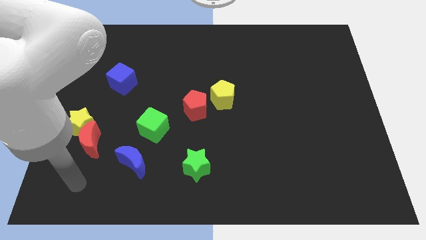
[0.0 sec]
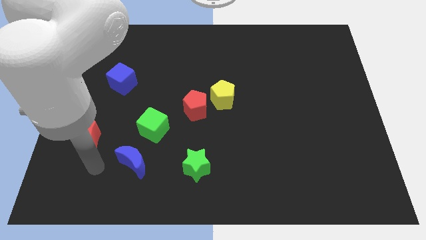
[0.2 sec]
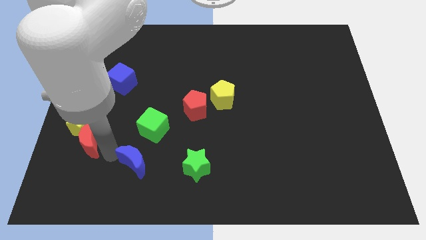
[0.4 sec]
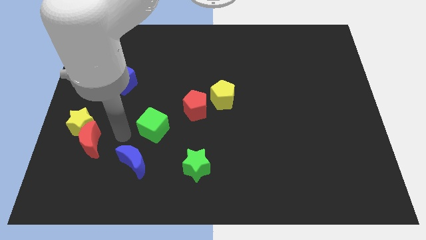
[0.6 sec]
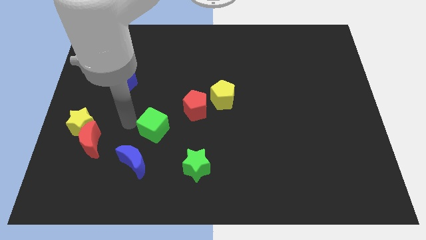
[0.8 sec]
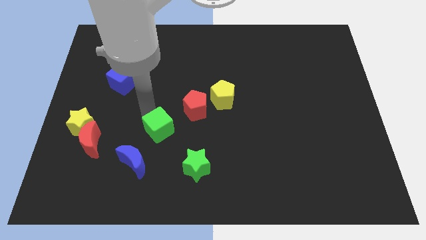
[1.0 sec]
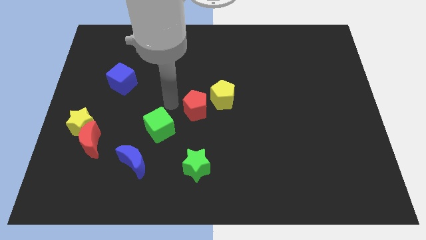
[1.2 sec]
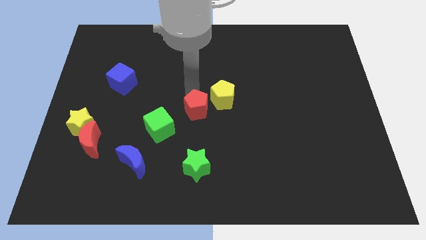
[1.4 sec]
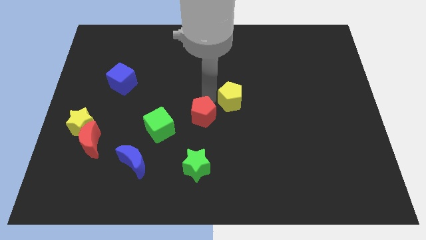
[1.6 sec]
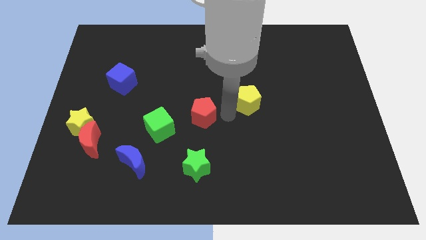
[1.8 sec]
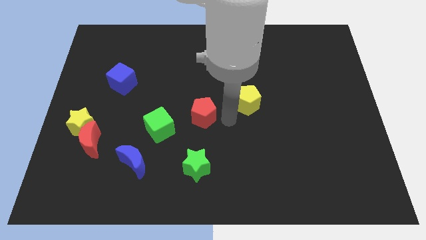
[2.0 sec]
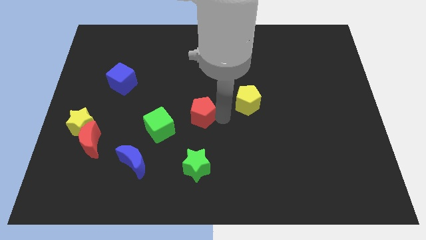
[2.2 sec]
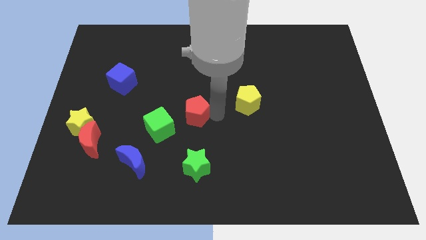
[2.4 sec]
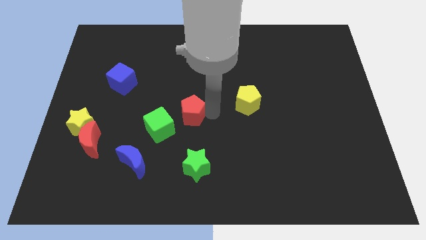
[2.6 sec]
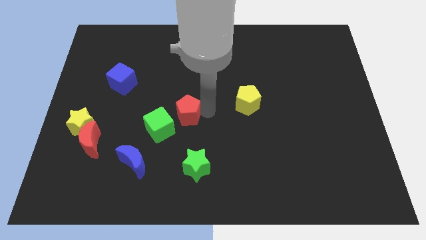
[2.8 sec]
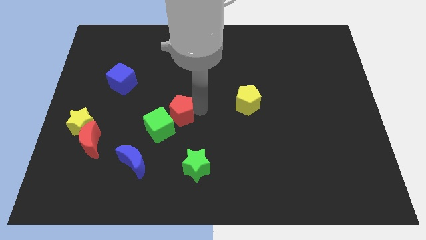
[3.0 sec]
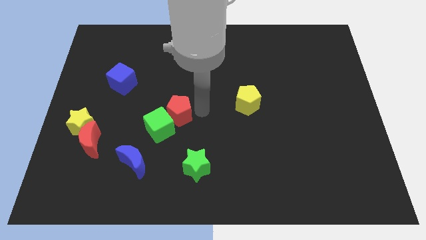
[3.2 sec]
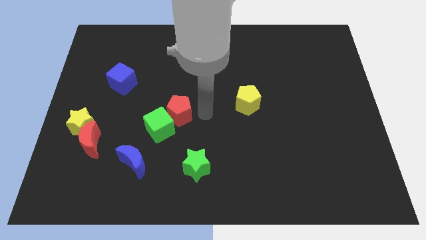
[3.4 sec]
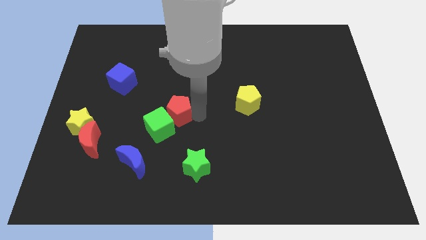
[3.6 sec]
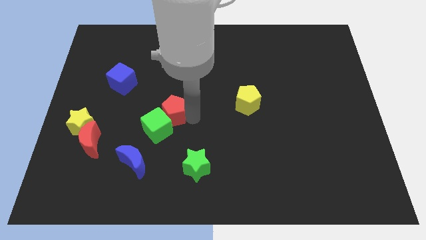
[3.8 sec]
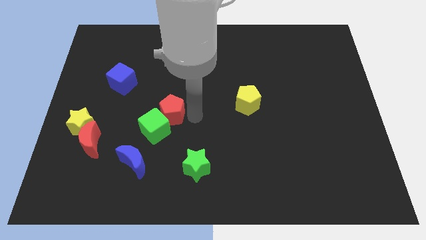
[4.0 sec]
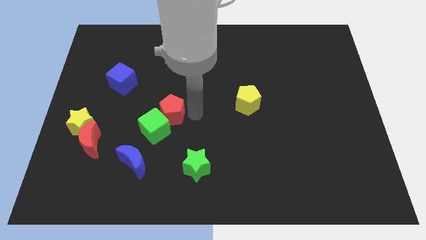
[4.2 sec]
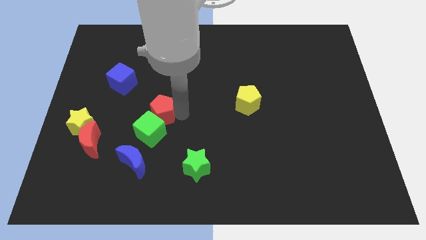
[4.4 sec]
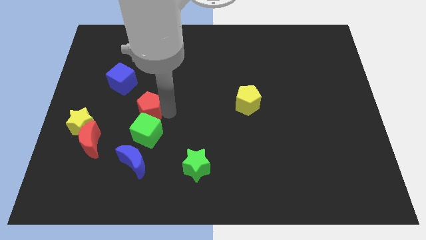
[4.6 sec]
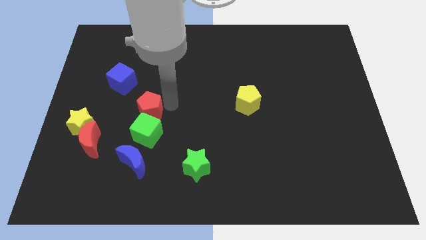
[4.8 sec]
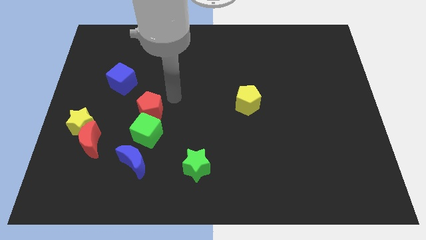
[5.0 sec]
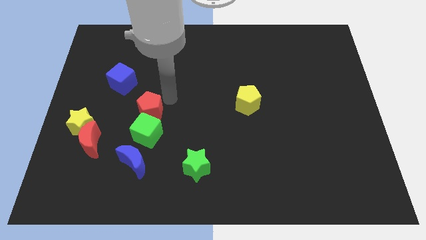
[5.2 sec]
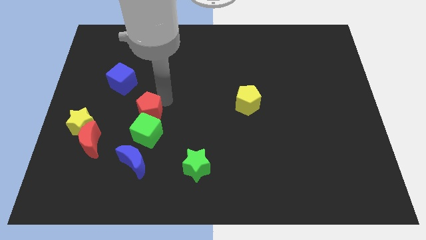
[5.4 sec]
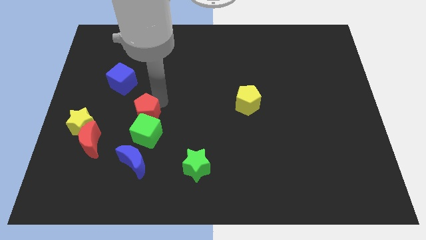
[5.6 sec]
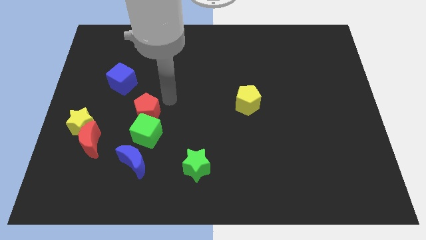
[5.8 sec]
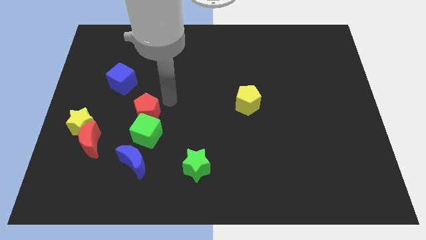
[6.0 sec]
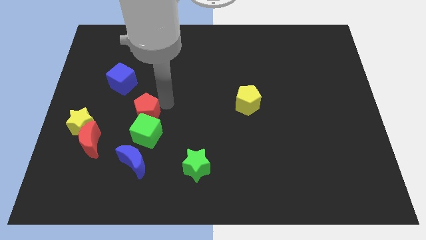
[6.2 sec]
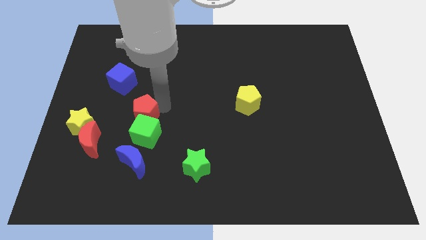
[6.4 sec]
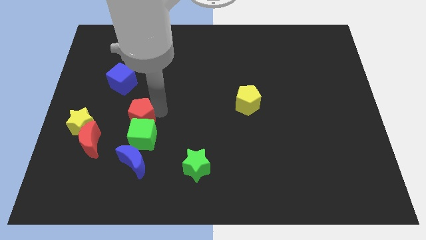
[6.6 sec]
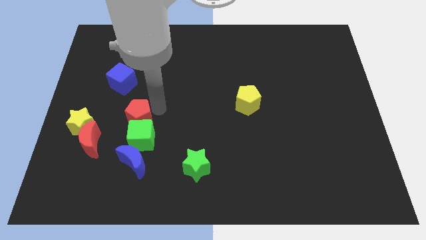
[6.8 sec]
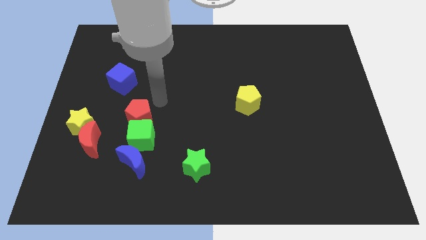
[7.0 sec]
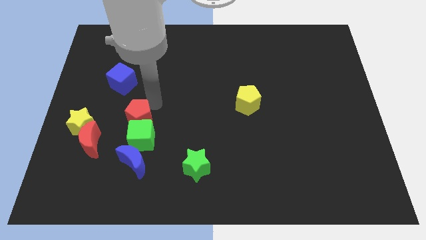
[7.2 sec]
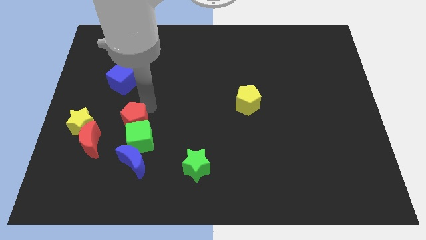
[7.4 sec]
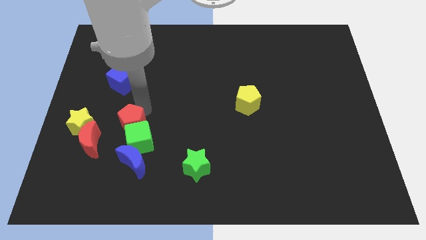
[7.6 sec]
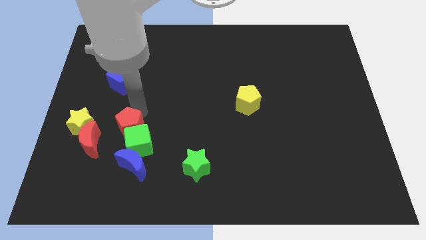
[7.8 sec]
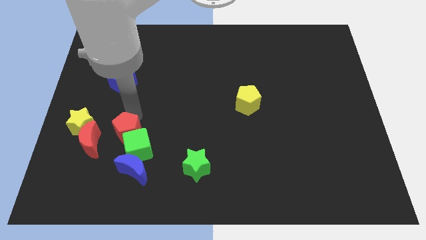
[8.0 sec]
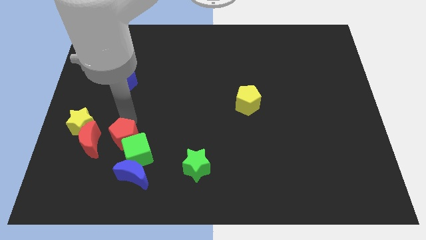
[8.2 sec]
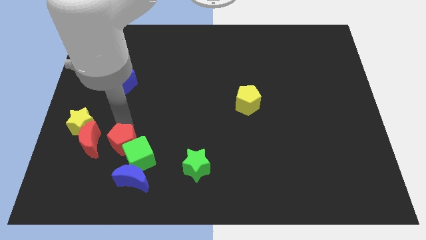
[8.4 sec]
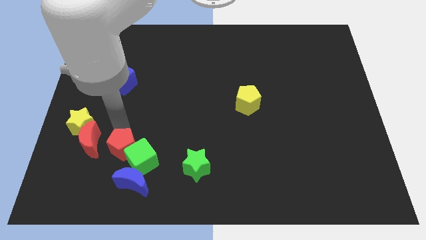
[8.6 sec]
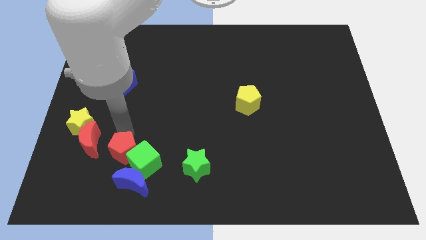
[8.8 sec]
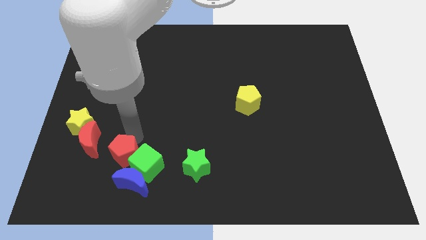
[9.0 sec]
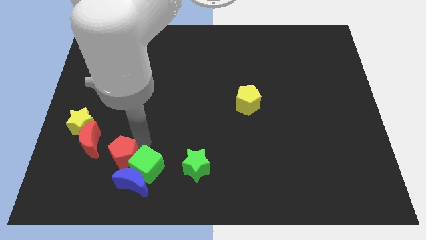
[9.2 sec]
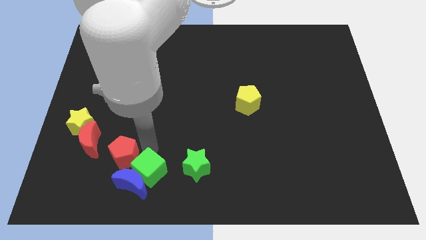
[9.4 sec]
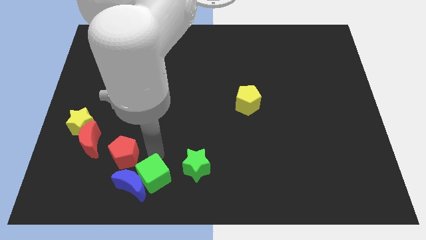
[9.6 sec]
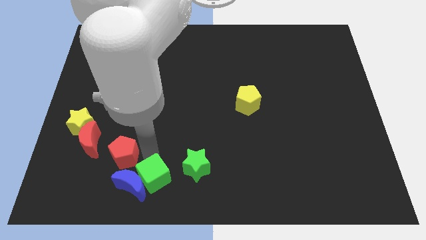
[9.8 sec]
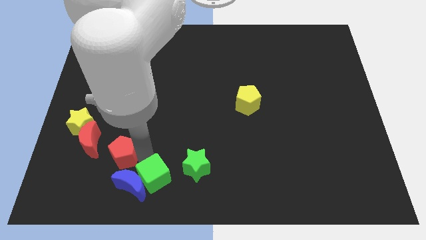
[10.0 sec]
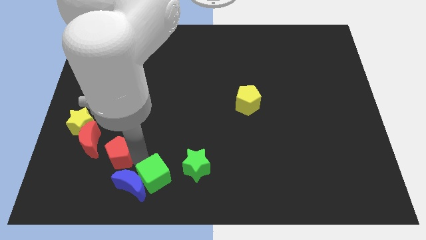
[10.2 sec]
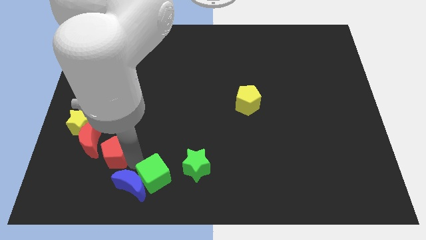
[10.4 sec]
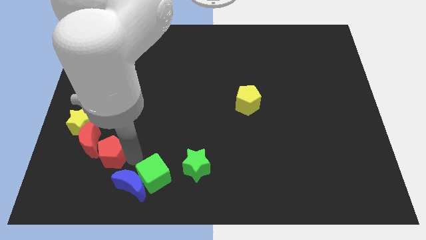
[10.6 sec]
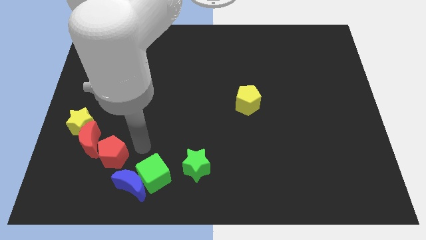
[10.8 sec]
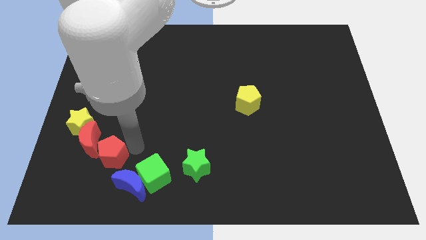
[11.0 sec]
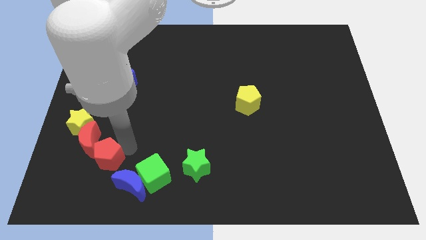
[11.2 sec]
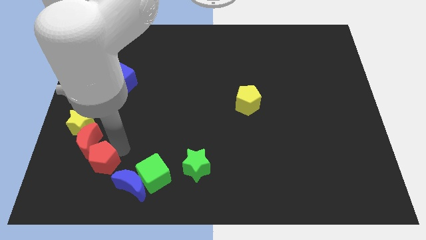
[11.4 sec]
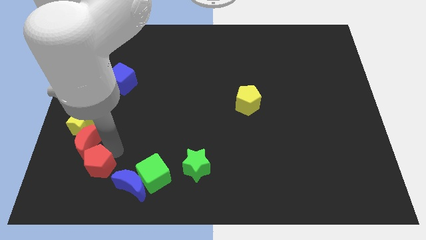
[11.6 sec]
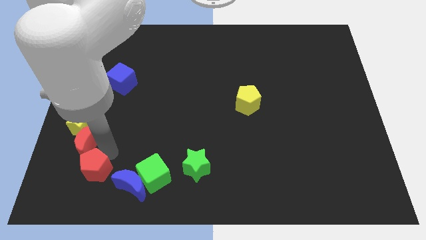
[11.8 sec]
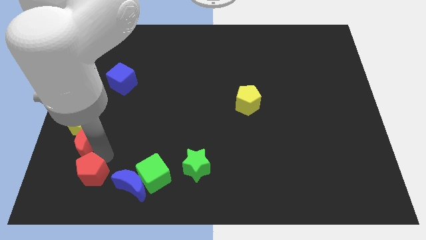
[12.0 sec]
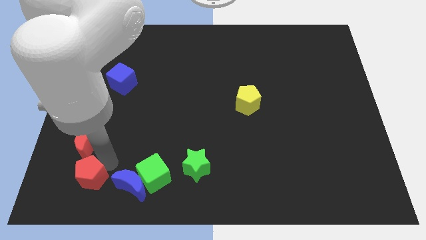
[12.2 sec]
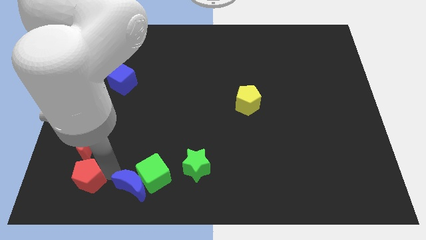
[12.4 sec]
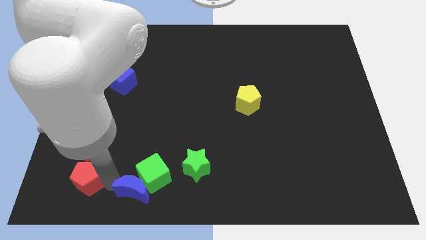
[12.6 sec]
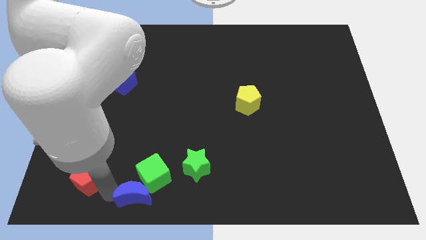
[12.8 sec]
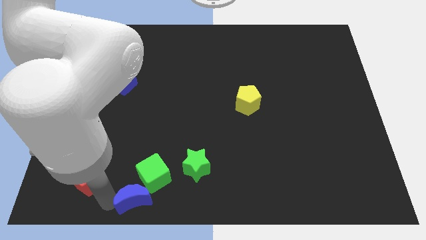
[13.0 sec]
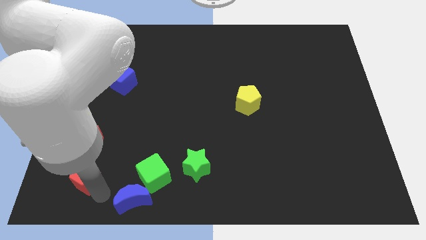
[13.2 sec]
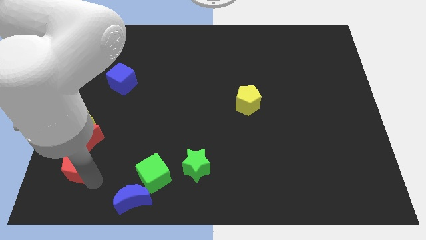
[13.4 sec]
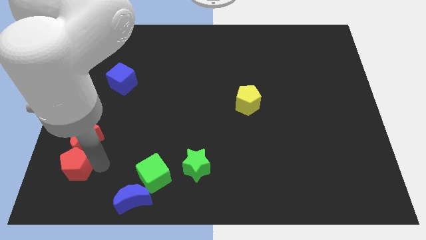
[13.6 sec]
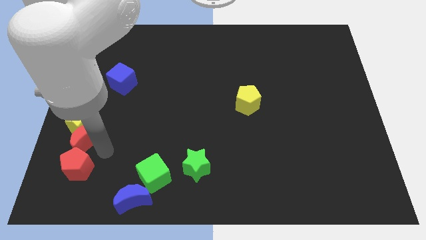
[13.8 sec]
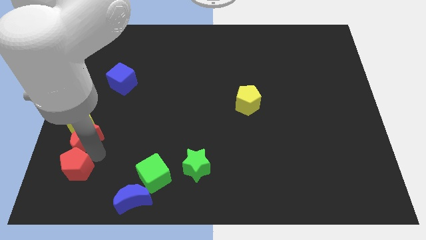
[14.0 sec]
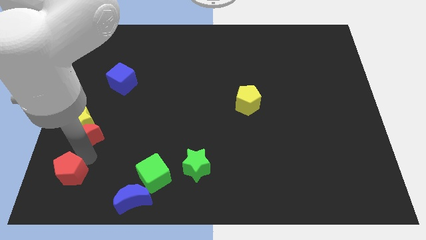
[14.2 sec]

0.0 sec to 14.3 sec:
push the red pentagon to the bottom left of the board
